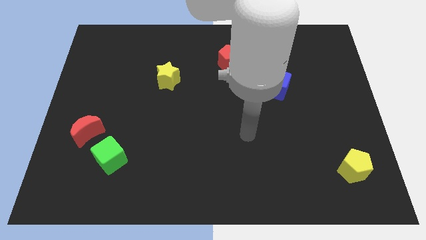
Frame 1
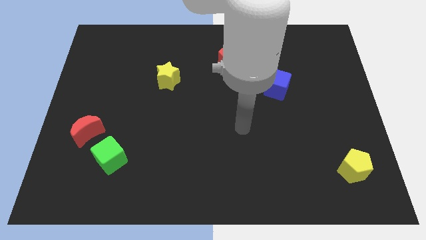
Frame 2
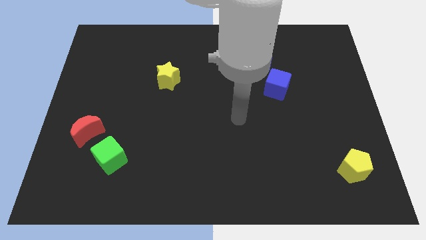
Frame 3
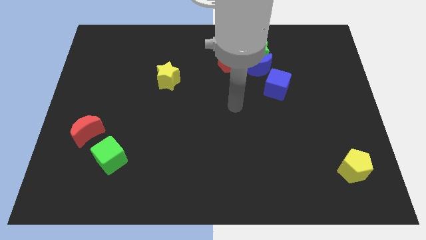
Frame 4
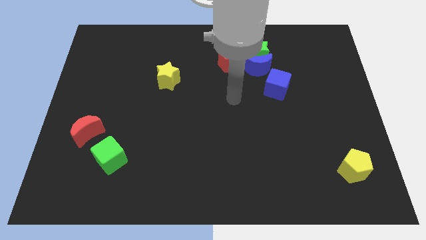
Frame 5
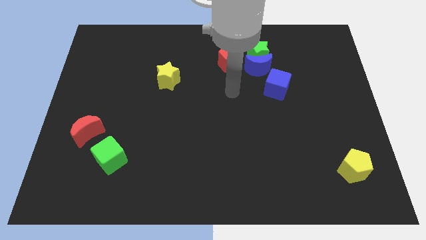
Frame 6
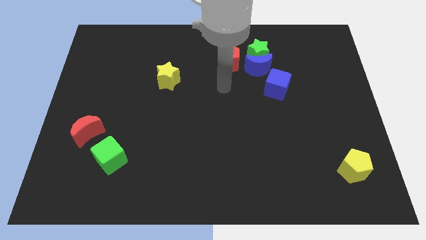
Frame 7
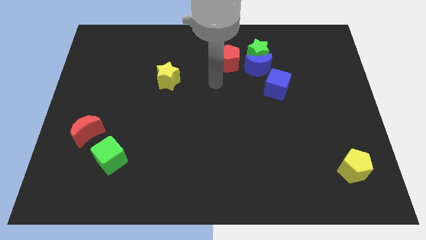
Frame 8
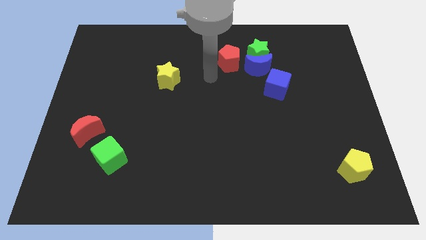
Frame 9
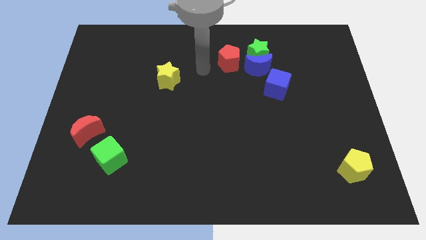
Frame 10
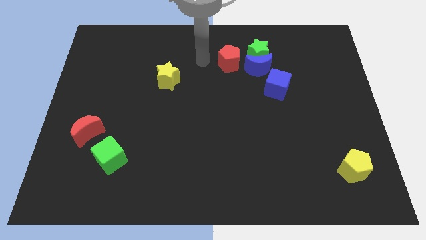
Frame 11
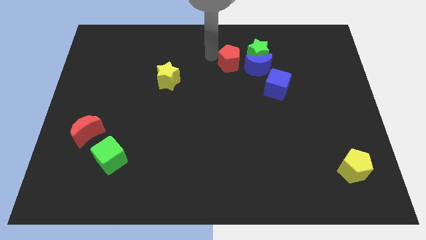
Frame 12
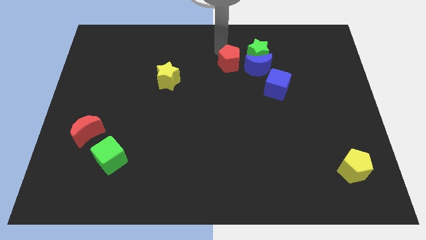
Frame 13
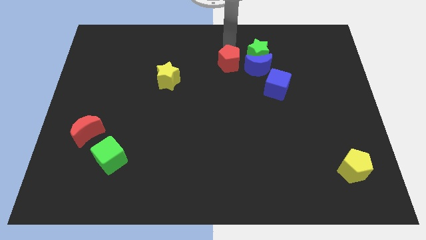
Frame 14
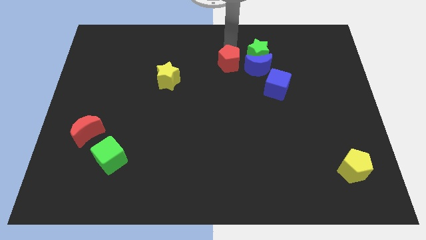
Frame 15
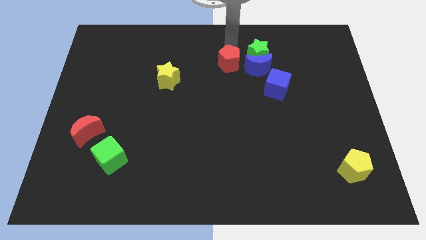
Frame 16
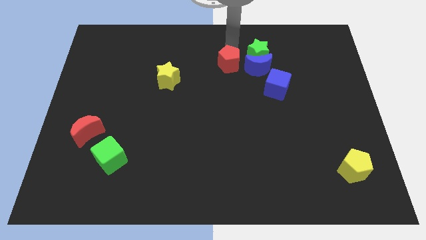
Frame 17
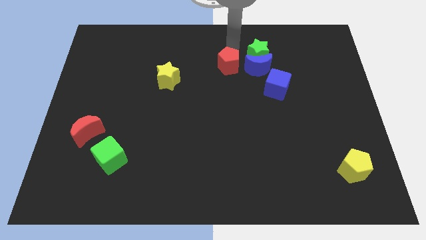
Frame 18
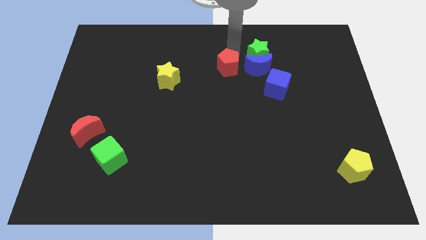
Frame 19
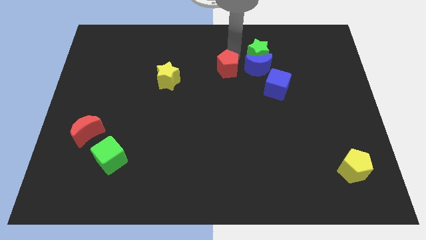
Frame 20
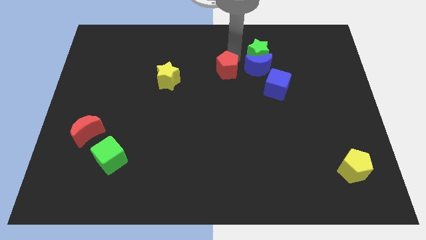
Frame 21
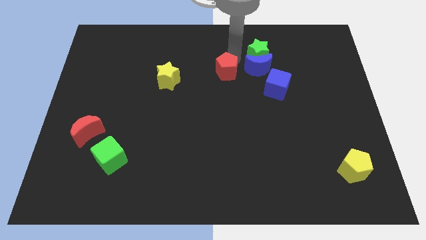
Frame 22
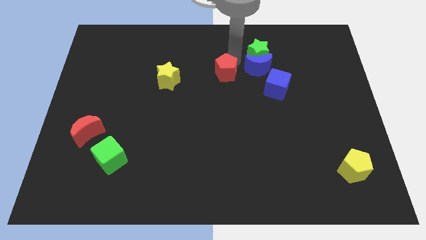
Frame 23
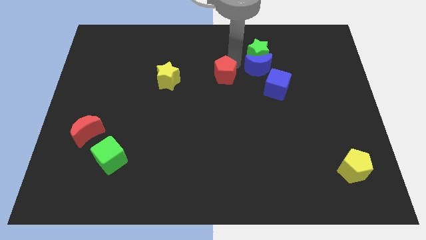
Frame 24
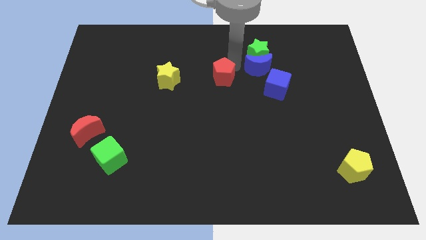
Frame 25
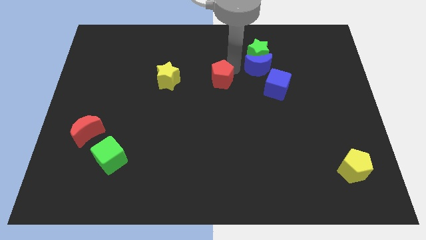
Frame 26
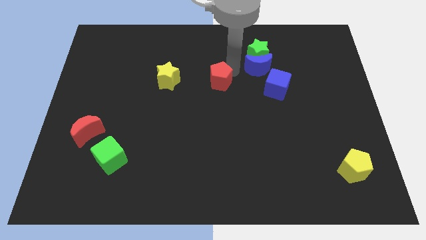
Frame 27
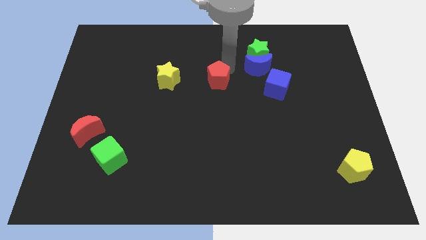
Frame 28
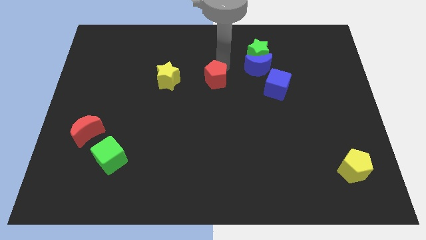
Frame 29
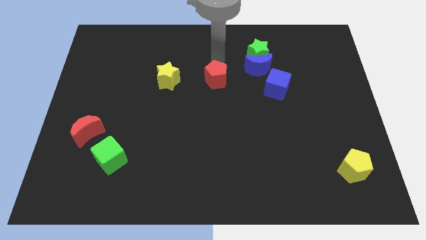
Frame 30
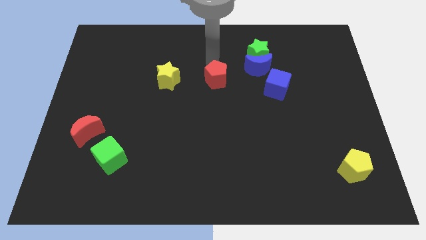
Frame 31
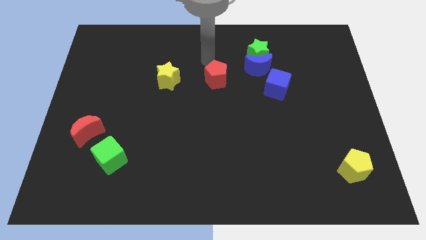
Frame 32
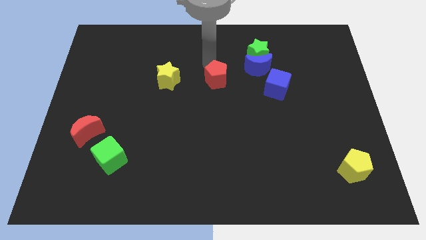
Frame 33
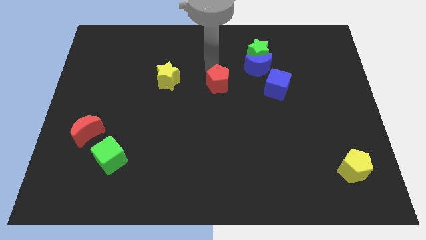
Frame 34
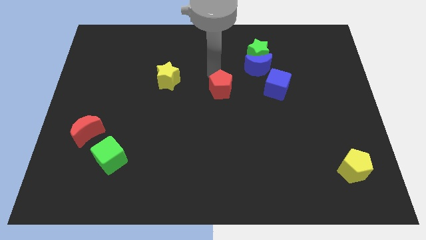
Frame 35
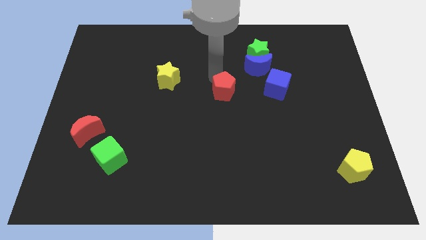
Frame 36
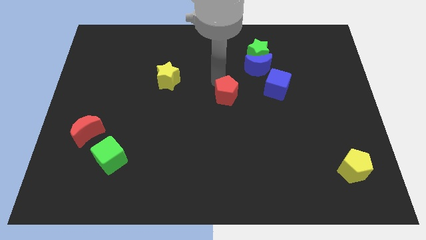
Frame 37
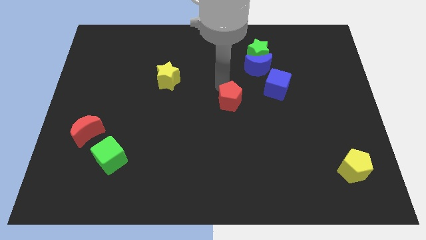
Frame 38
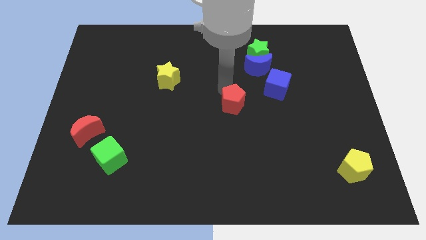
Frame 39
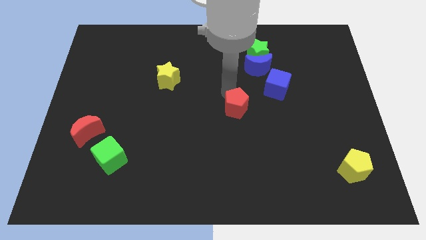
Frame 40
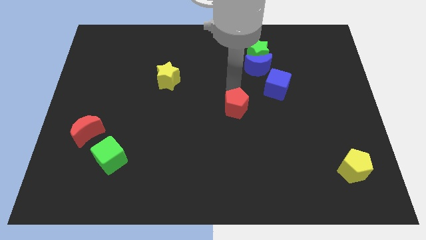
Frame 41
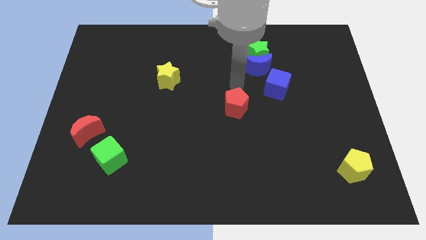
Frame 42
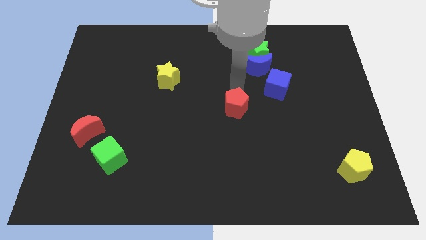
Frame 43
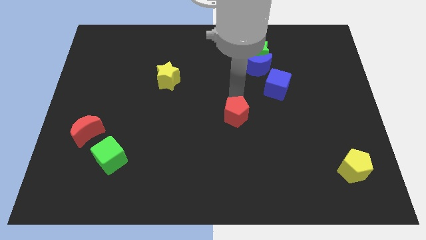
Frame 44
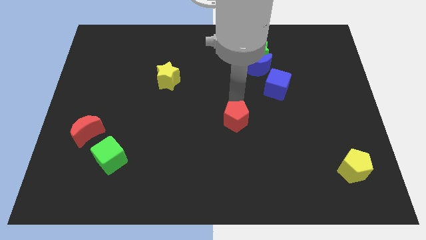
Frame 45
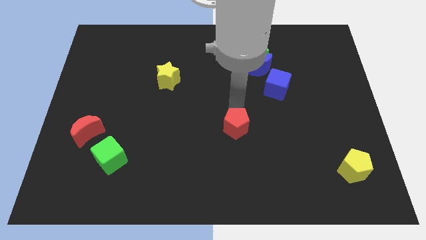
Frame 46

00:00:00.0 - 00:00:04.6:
push the red pentagon downwards

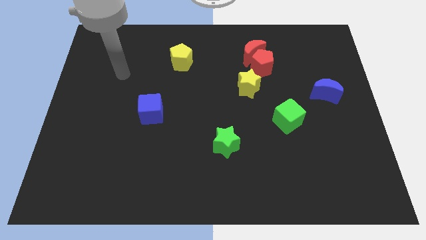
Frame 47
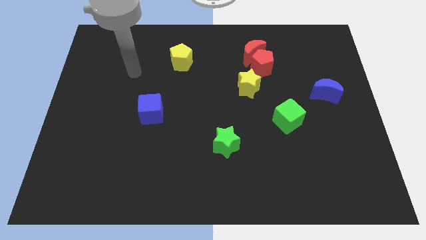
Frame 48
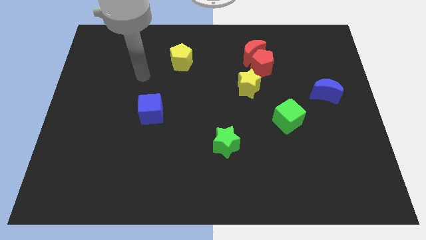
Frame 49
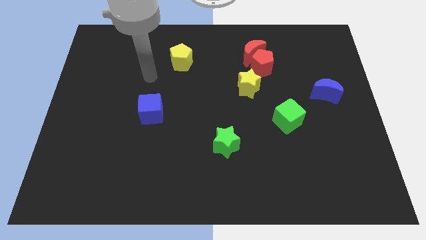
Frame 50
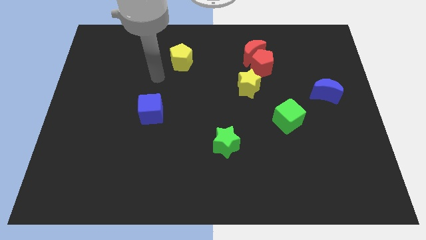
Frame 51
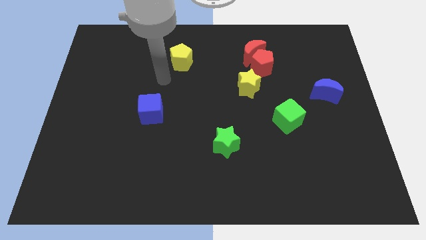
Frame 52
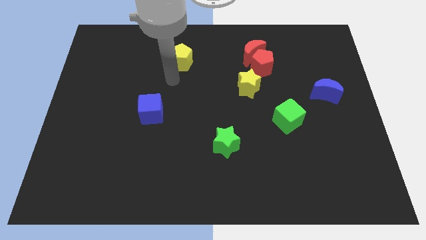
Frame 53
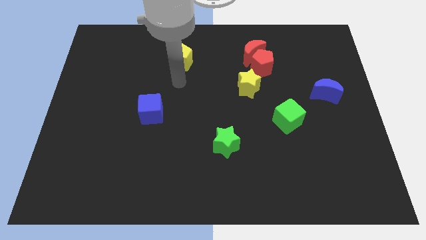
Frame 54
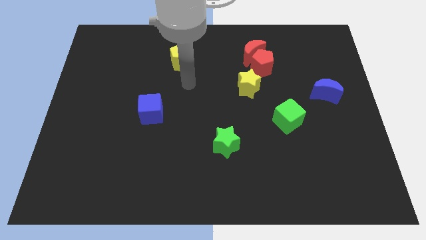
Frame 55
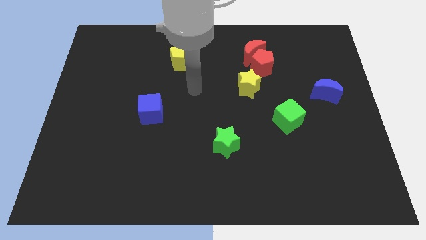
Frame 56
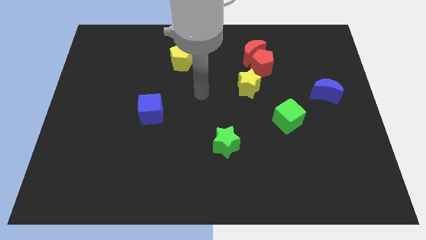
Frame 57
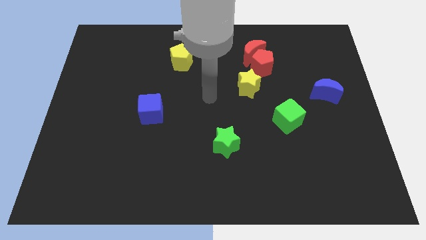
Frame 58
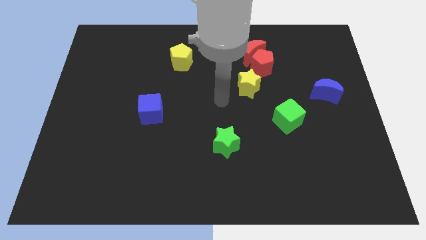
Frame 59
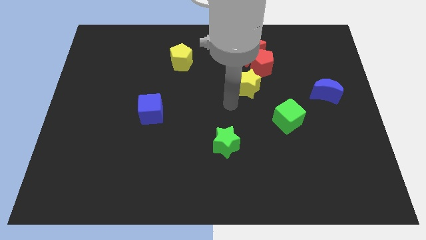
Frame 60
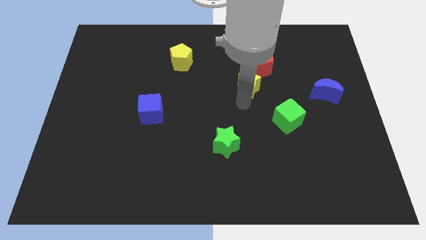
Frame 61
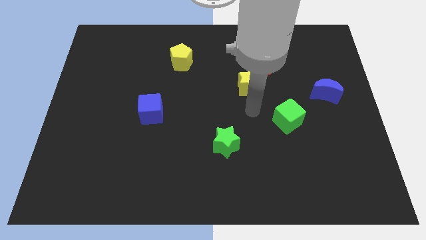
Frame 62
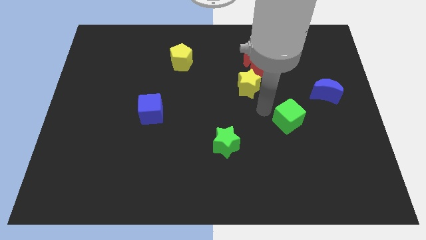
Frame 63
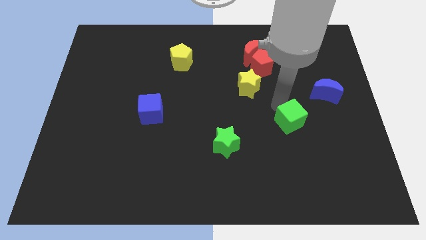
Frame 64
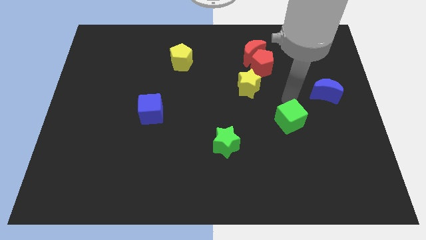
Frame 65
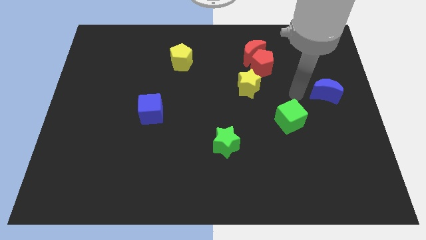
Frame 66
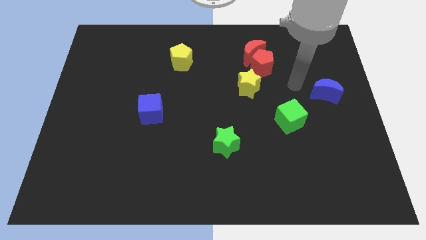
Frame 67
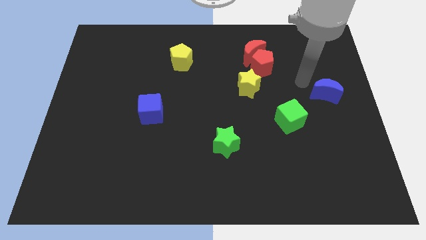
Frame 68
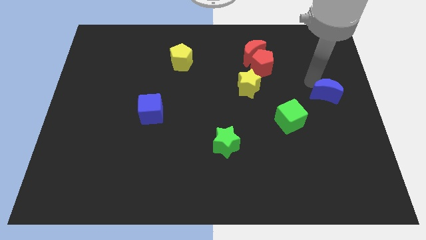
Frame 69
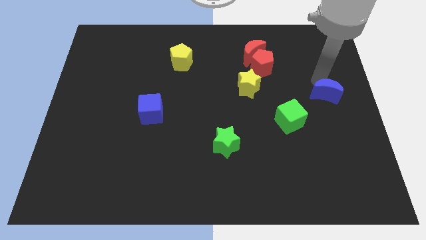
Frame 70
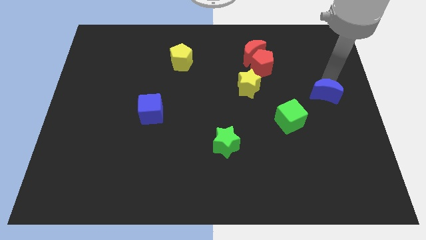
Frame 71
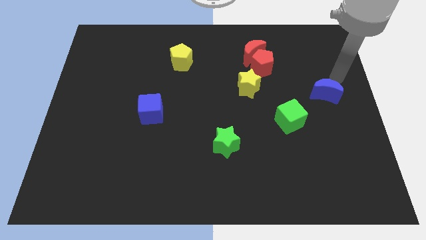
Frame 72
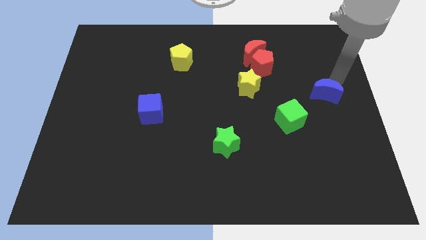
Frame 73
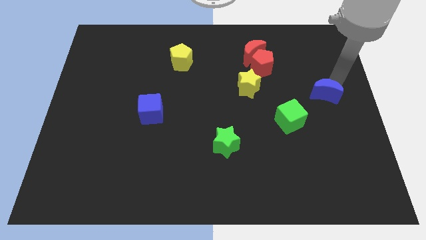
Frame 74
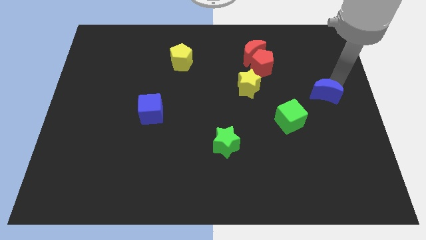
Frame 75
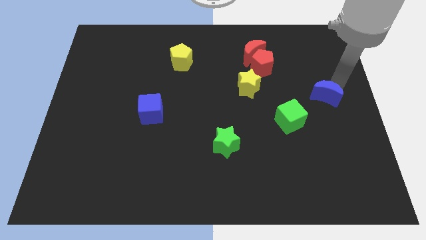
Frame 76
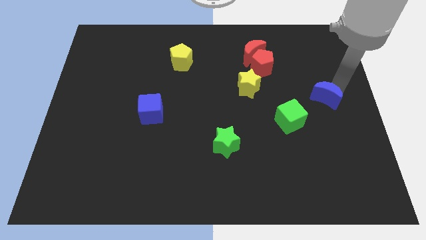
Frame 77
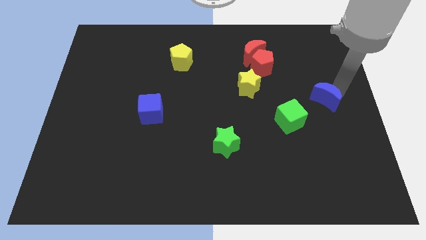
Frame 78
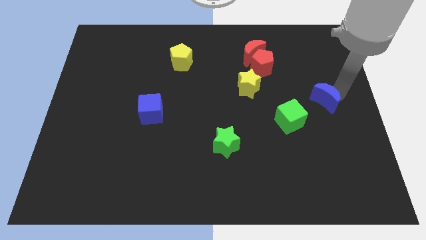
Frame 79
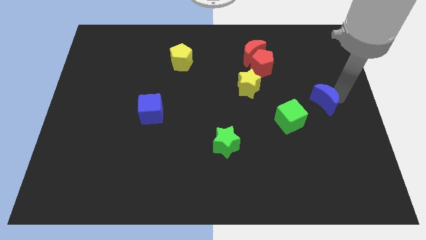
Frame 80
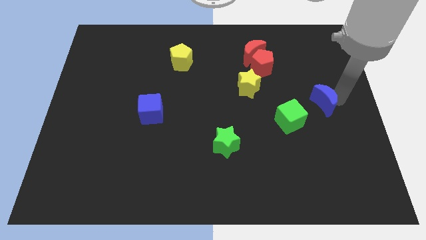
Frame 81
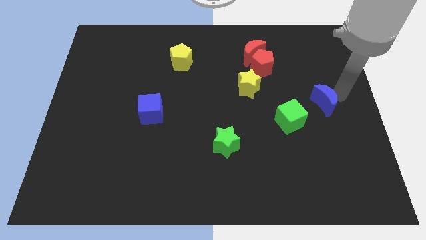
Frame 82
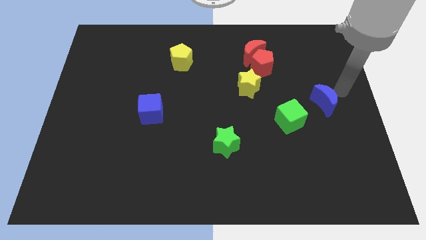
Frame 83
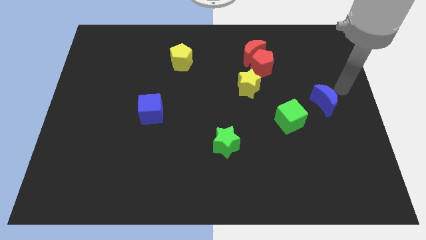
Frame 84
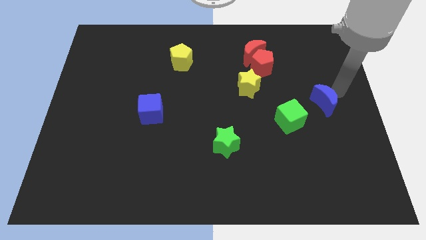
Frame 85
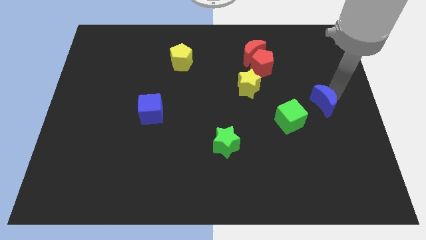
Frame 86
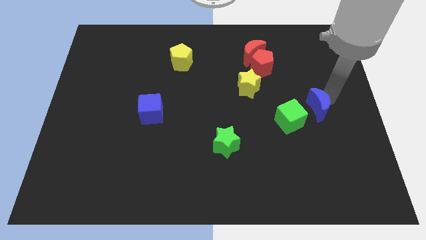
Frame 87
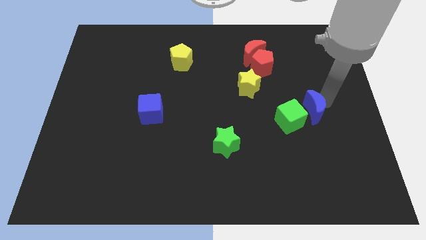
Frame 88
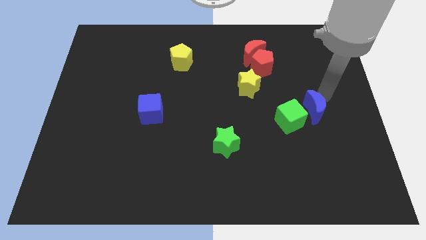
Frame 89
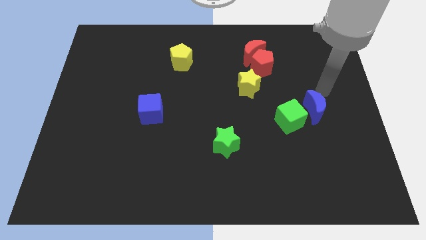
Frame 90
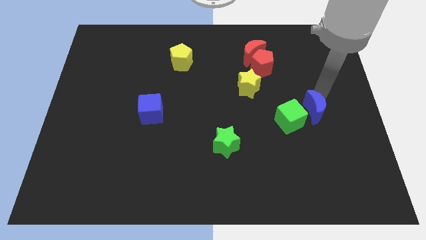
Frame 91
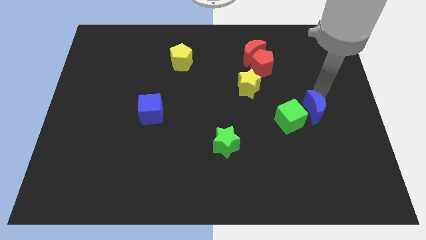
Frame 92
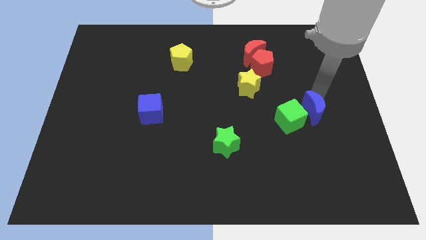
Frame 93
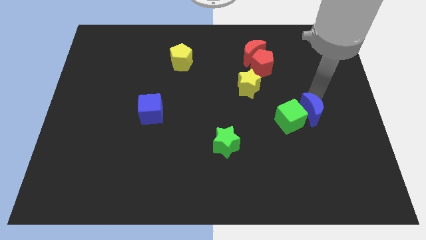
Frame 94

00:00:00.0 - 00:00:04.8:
slide the blue moon downwards and left somewhat
